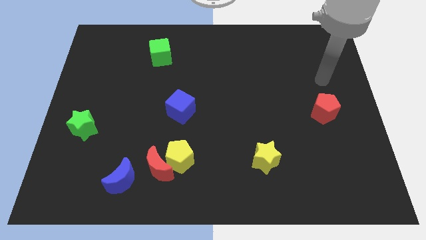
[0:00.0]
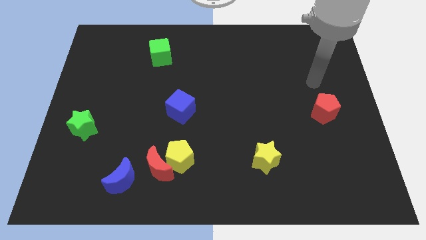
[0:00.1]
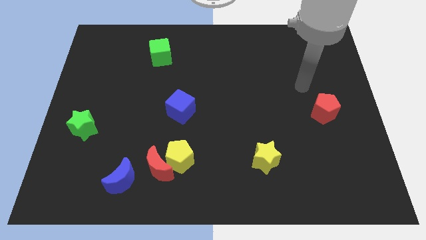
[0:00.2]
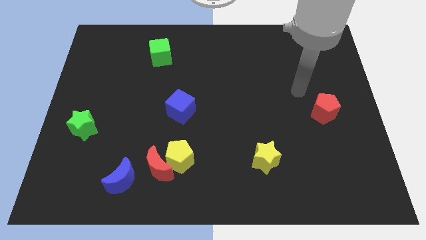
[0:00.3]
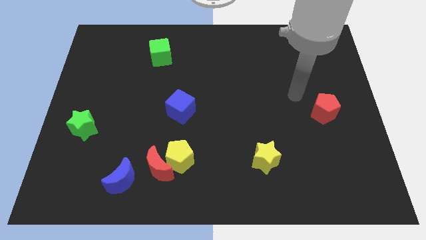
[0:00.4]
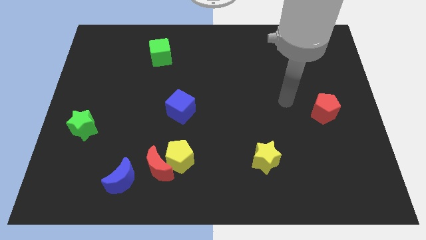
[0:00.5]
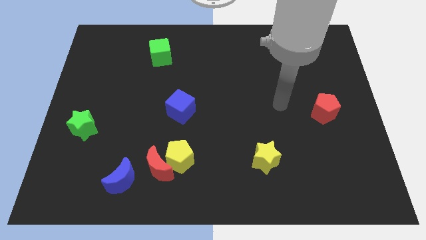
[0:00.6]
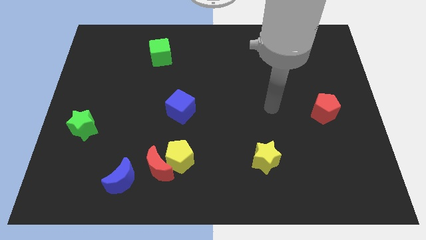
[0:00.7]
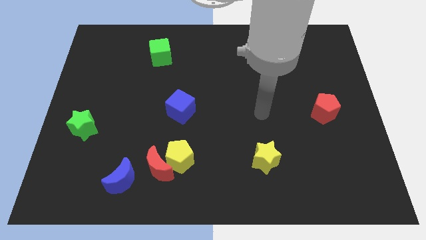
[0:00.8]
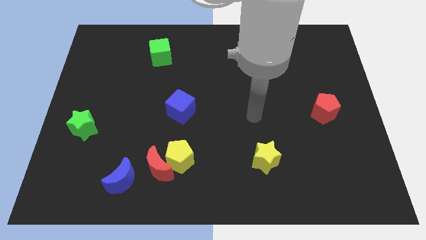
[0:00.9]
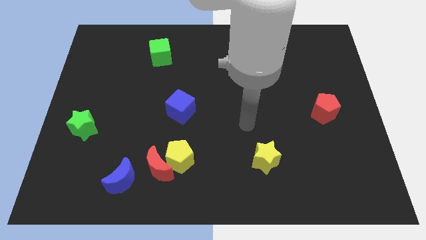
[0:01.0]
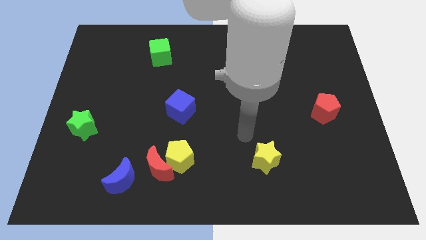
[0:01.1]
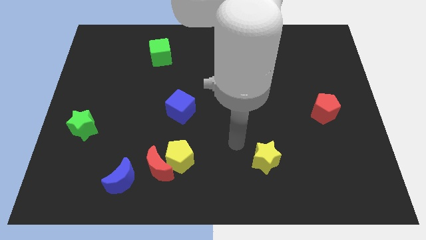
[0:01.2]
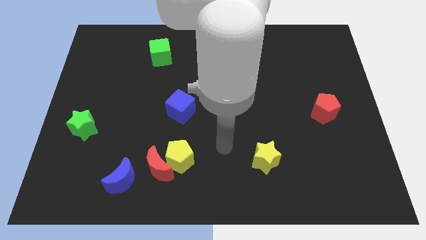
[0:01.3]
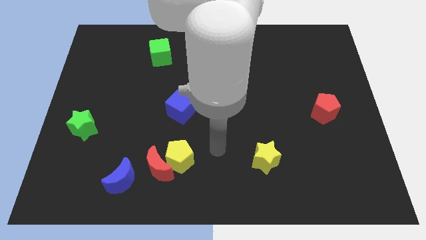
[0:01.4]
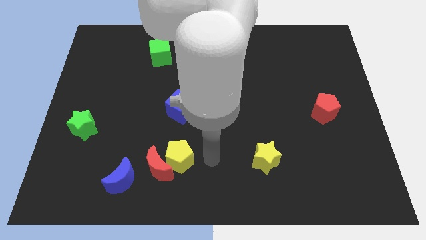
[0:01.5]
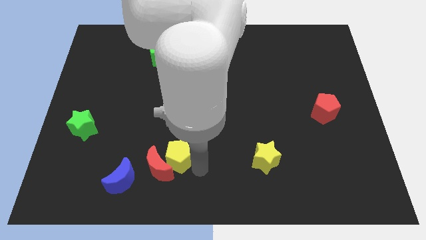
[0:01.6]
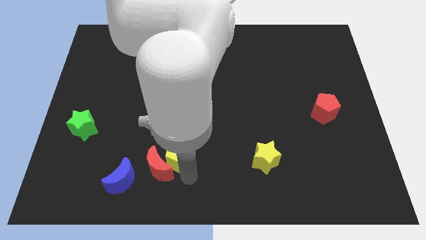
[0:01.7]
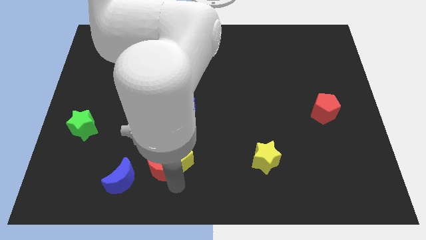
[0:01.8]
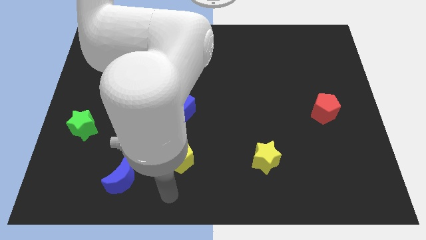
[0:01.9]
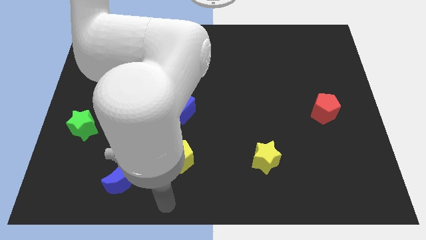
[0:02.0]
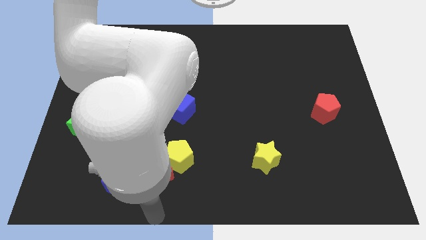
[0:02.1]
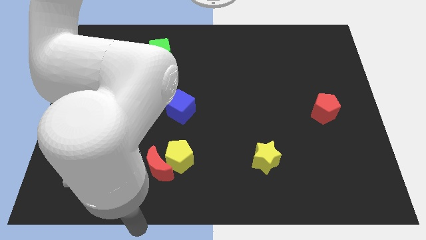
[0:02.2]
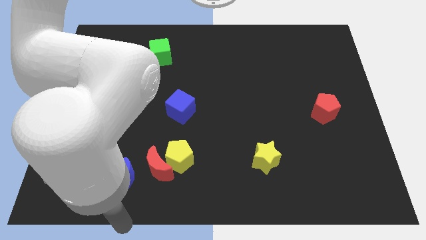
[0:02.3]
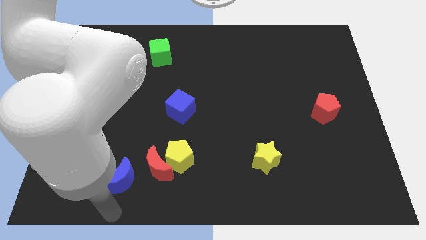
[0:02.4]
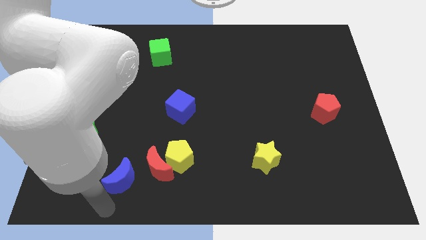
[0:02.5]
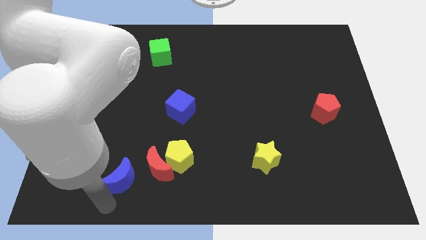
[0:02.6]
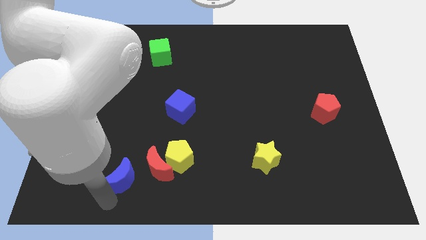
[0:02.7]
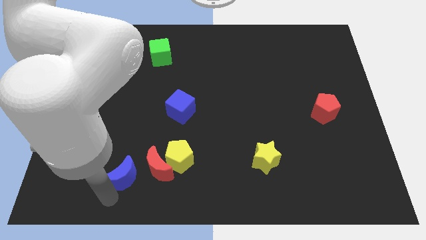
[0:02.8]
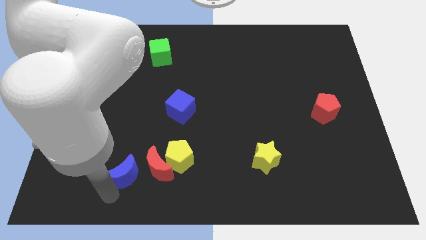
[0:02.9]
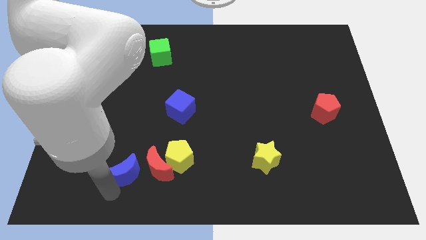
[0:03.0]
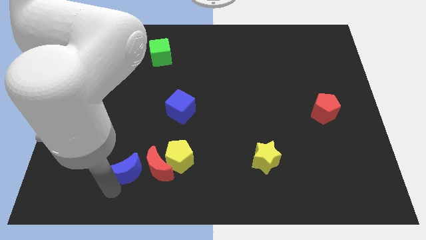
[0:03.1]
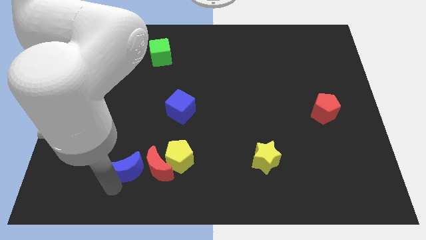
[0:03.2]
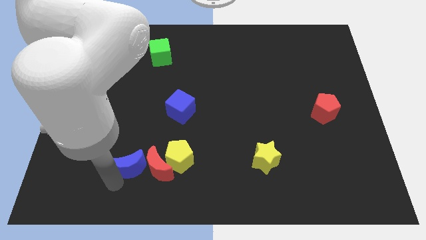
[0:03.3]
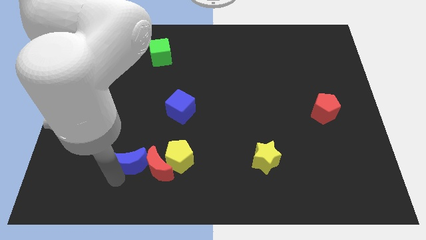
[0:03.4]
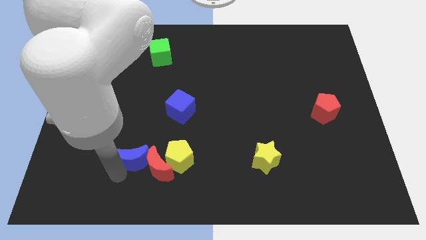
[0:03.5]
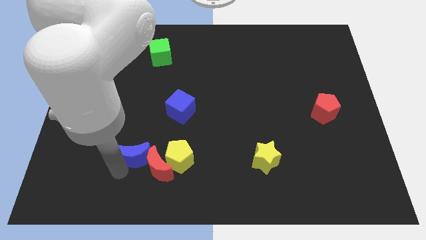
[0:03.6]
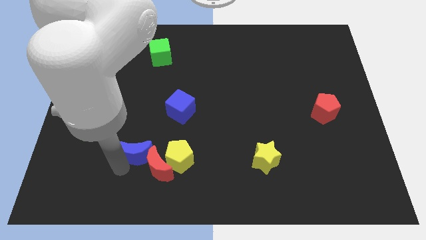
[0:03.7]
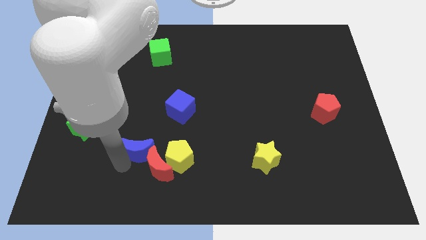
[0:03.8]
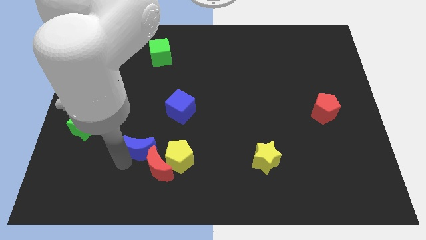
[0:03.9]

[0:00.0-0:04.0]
slide the blue moon to the top left of the yellow pentagon

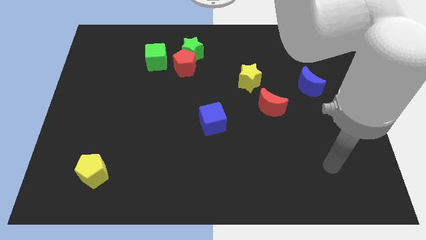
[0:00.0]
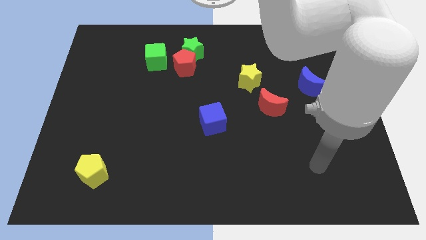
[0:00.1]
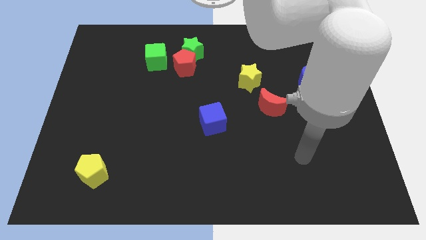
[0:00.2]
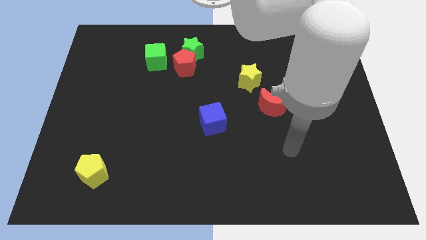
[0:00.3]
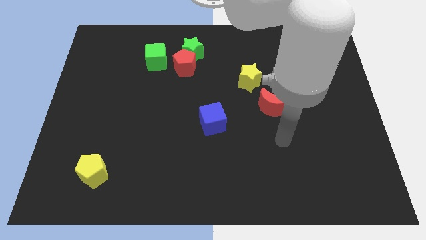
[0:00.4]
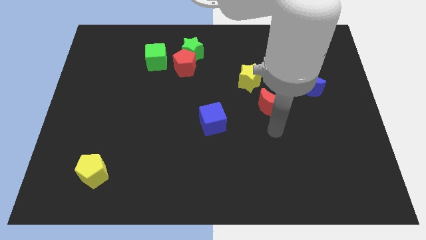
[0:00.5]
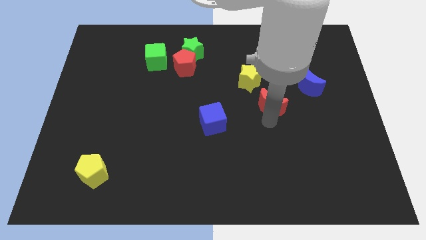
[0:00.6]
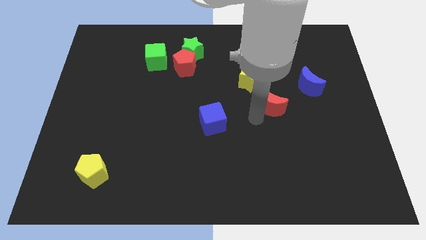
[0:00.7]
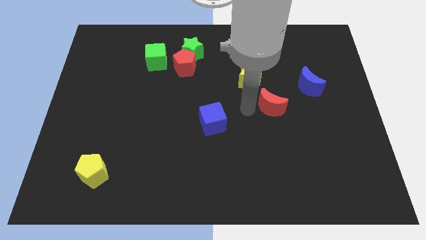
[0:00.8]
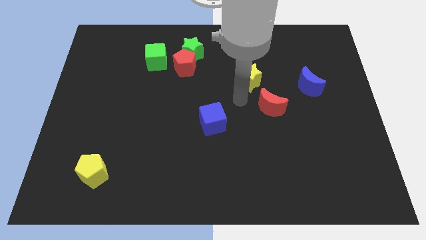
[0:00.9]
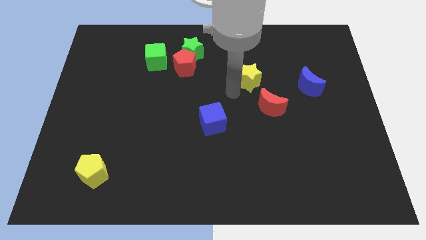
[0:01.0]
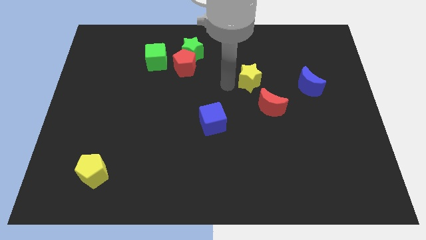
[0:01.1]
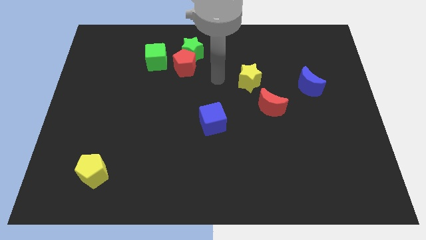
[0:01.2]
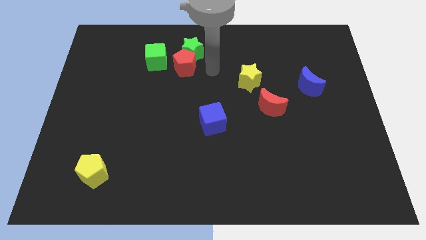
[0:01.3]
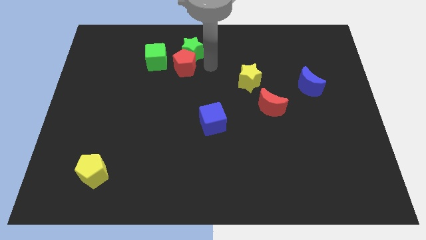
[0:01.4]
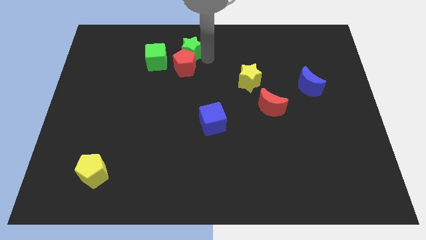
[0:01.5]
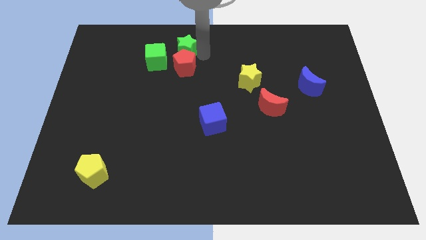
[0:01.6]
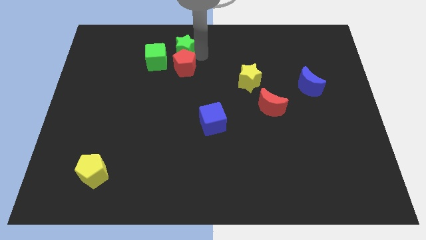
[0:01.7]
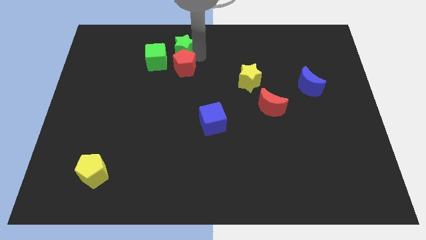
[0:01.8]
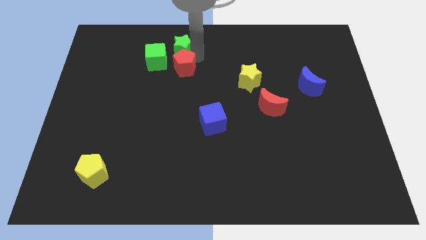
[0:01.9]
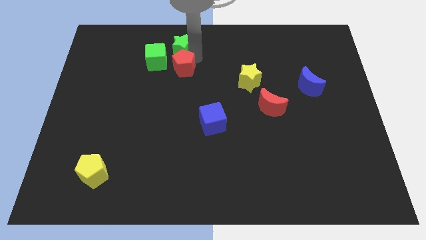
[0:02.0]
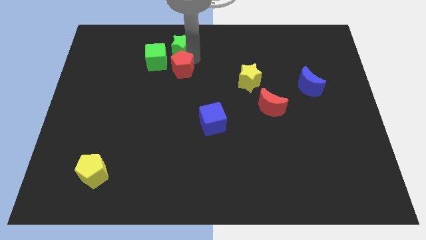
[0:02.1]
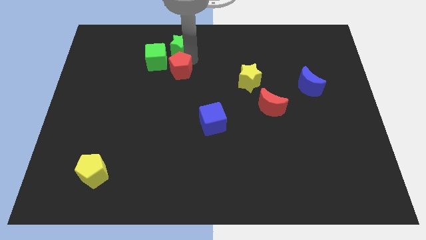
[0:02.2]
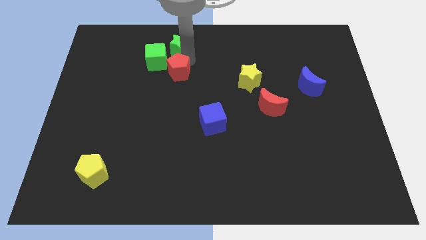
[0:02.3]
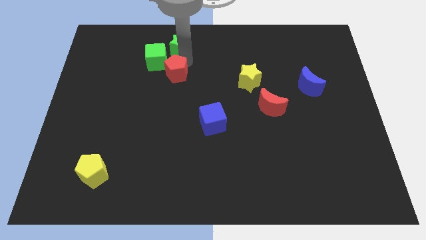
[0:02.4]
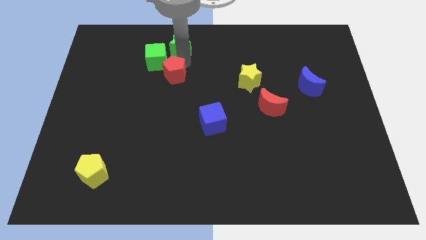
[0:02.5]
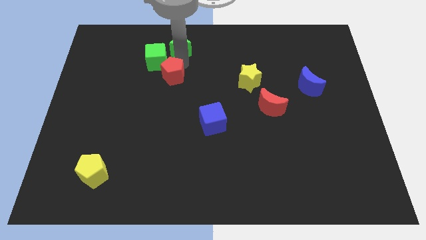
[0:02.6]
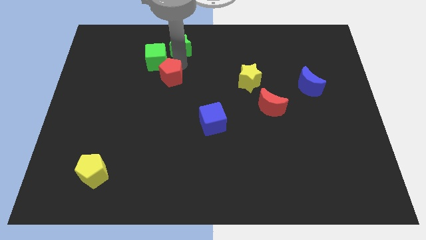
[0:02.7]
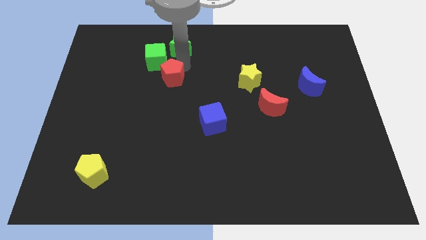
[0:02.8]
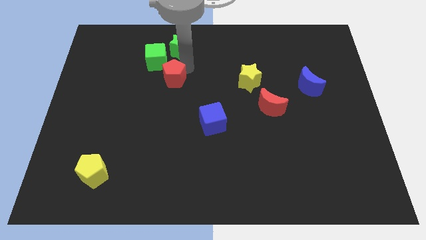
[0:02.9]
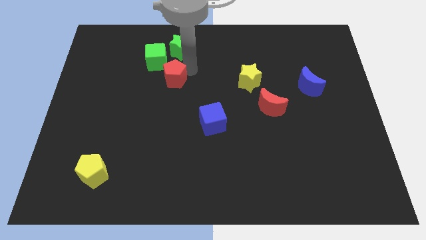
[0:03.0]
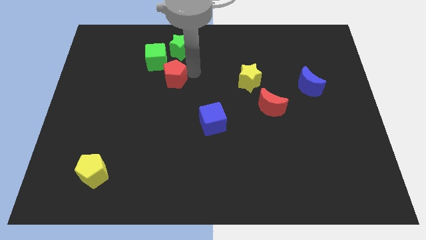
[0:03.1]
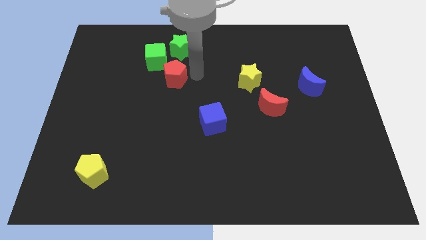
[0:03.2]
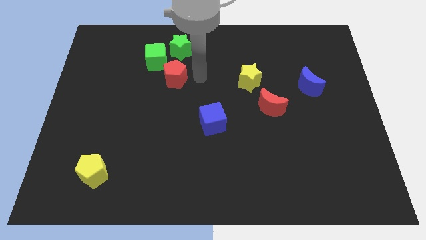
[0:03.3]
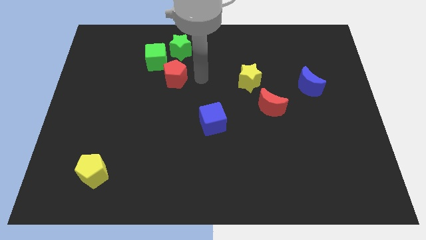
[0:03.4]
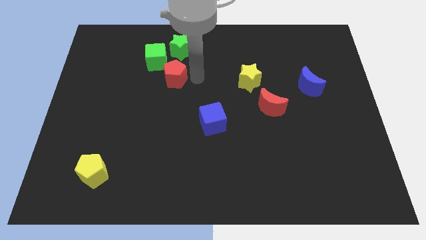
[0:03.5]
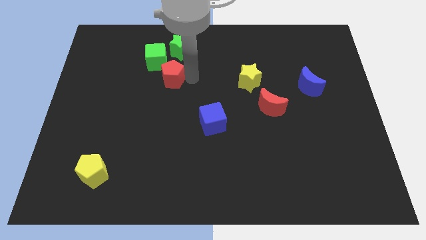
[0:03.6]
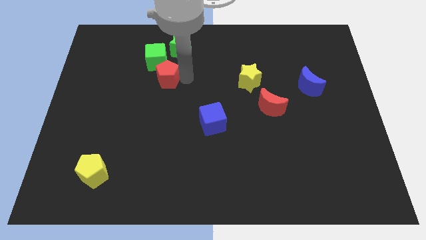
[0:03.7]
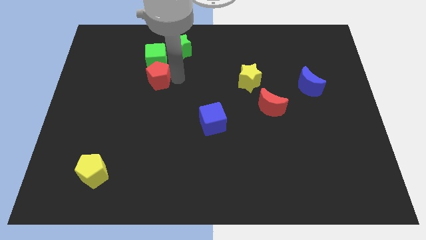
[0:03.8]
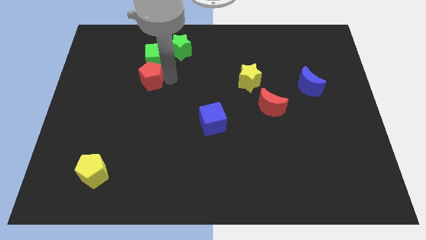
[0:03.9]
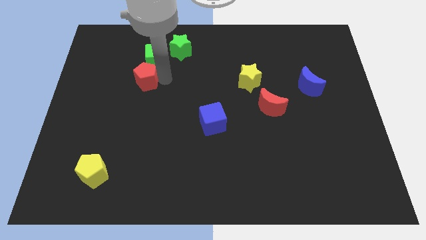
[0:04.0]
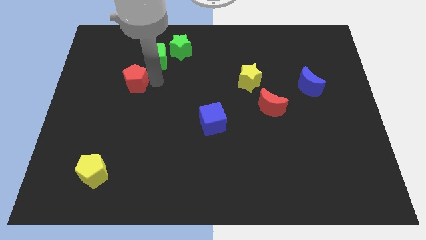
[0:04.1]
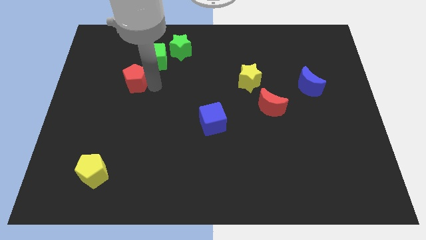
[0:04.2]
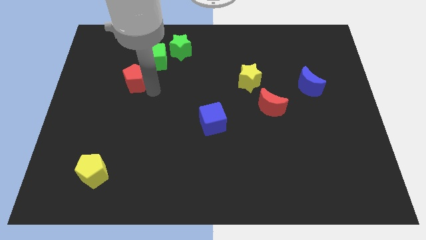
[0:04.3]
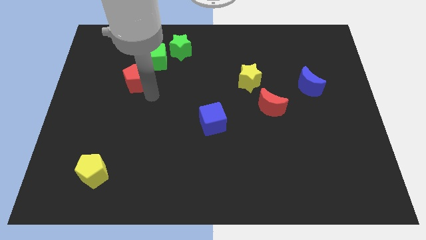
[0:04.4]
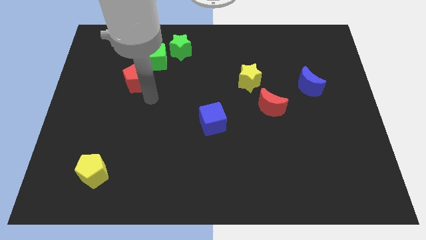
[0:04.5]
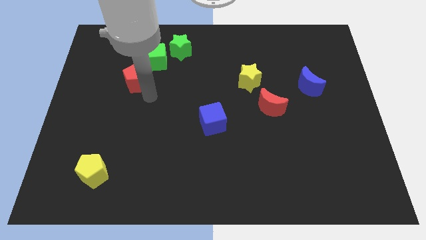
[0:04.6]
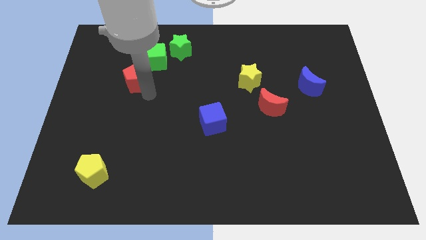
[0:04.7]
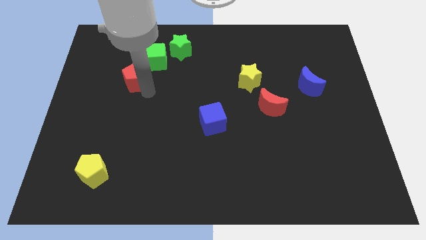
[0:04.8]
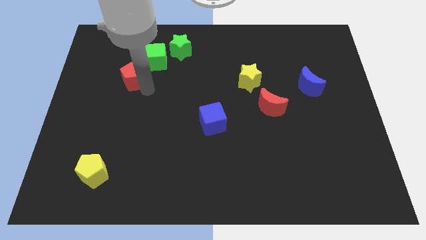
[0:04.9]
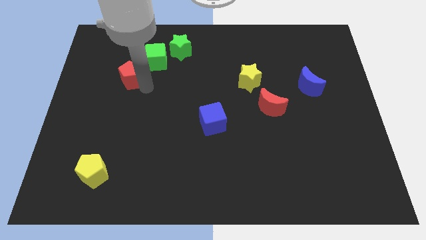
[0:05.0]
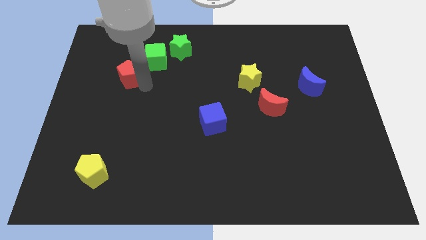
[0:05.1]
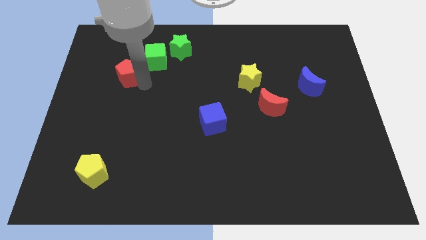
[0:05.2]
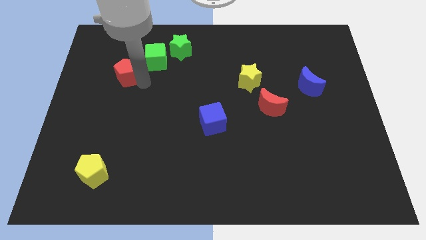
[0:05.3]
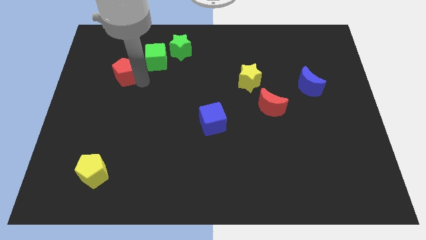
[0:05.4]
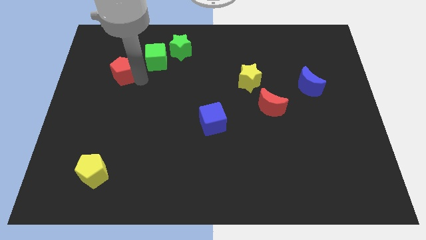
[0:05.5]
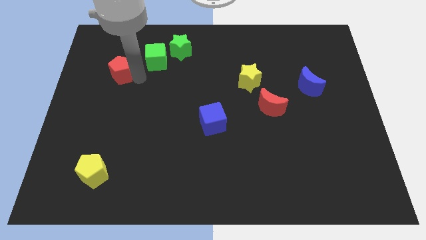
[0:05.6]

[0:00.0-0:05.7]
slide the red pentagon to the left of the green cube
